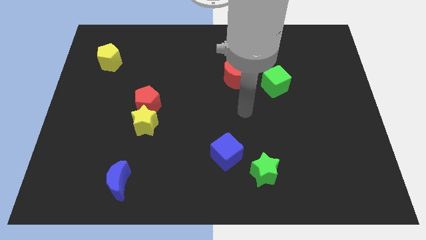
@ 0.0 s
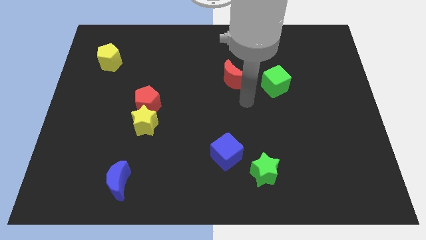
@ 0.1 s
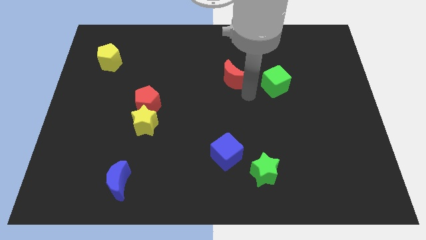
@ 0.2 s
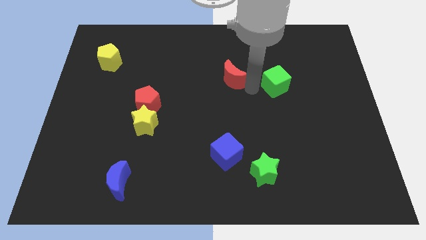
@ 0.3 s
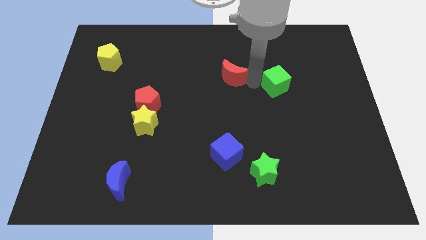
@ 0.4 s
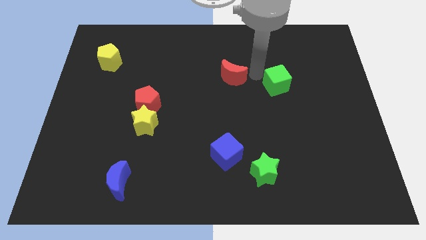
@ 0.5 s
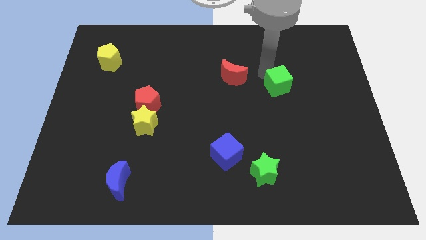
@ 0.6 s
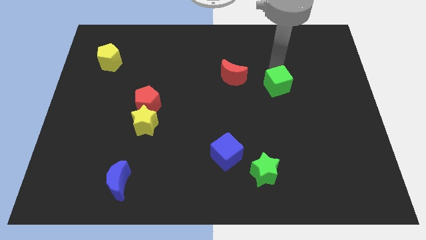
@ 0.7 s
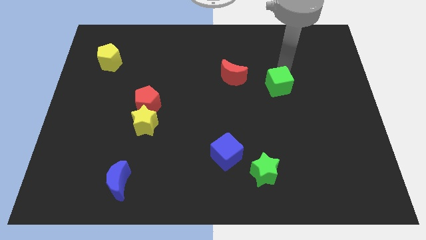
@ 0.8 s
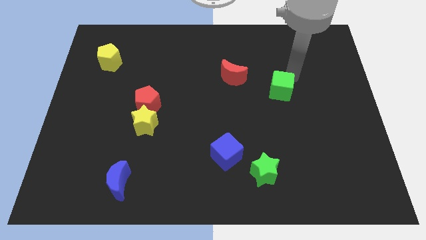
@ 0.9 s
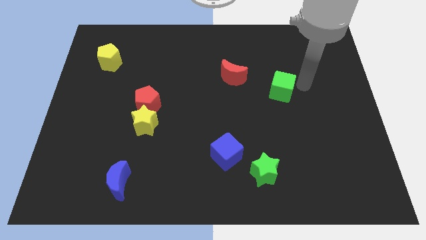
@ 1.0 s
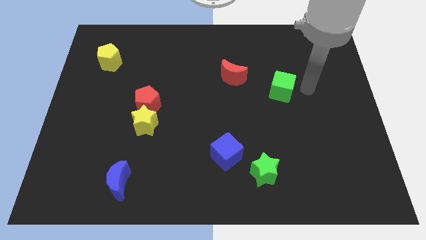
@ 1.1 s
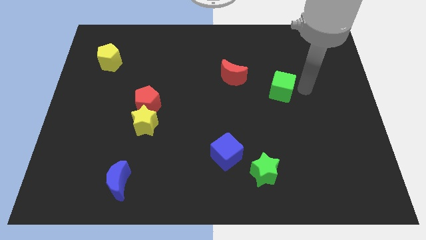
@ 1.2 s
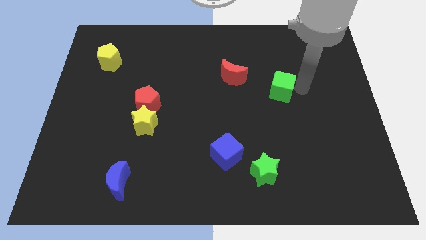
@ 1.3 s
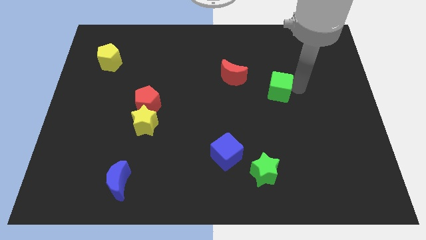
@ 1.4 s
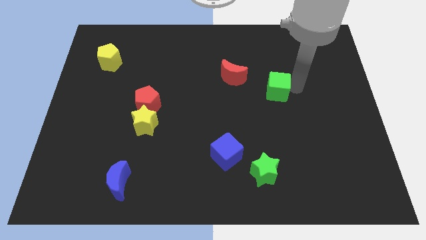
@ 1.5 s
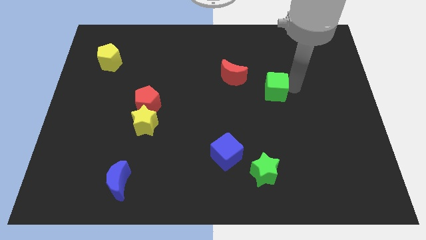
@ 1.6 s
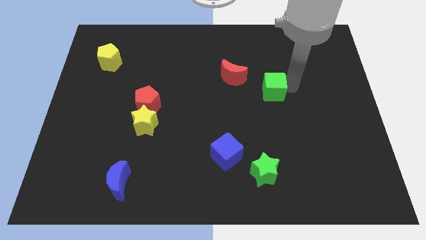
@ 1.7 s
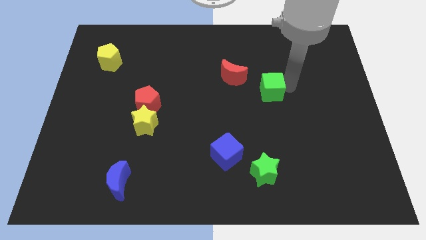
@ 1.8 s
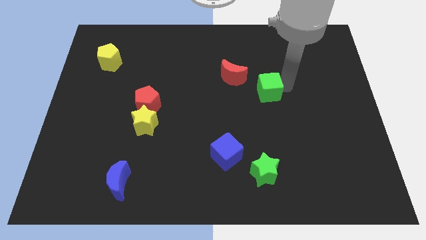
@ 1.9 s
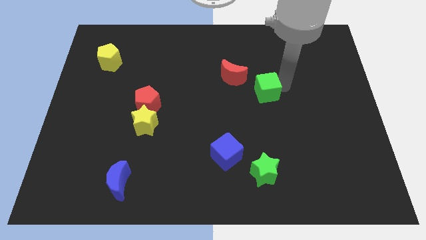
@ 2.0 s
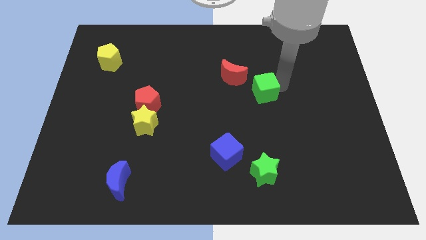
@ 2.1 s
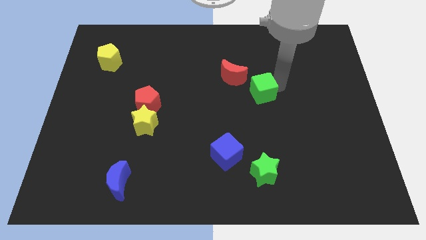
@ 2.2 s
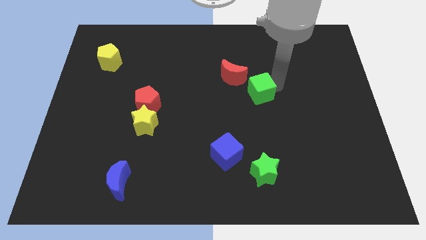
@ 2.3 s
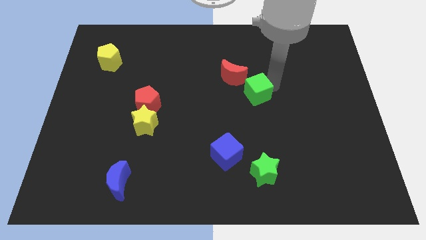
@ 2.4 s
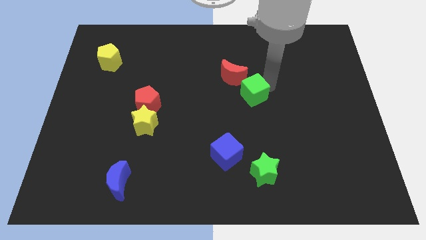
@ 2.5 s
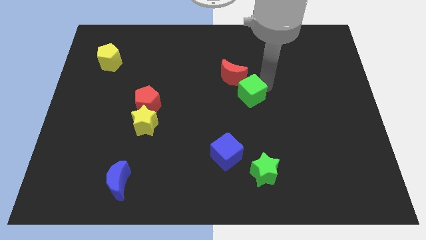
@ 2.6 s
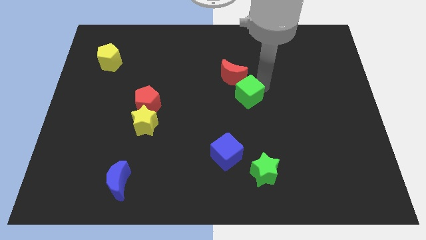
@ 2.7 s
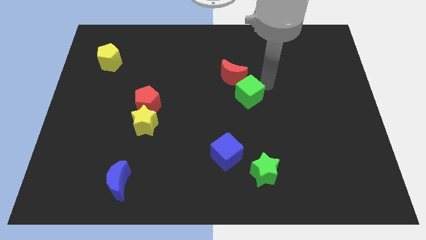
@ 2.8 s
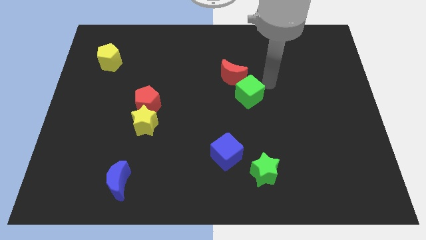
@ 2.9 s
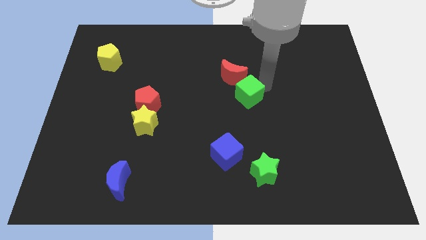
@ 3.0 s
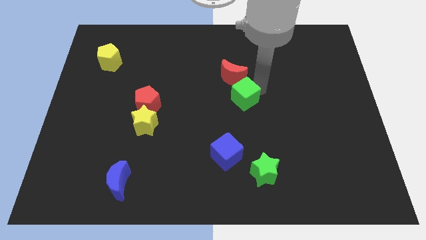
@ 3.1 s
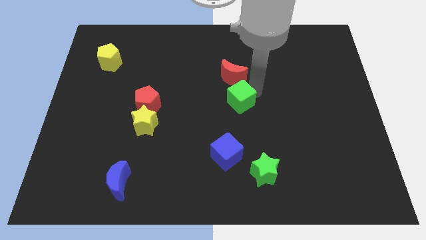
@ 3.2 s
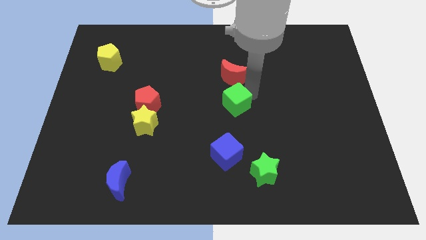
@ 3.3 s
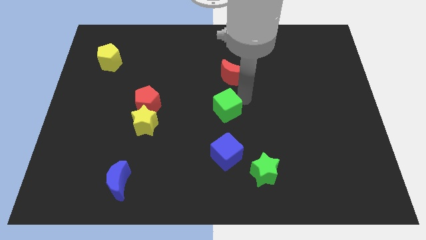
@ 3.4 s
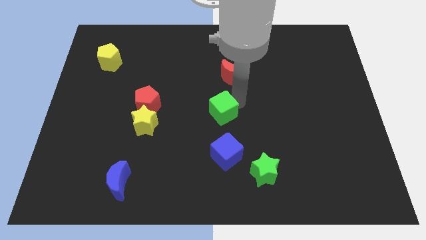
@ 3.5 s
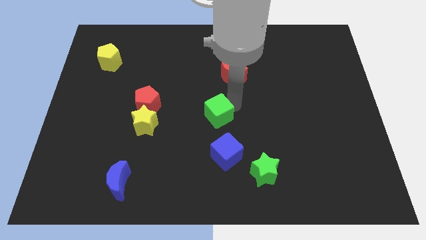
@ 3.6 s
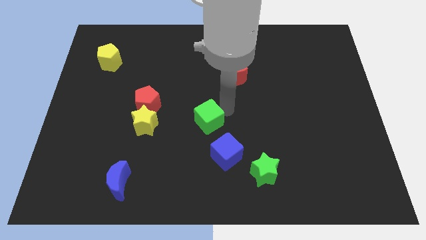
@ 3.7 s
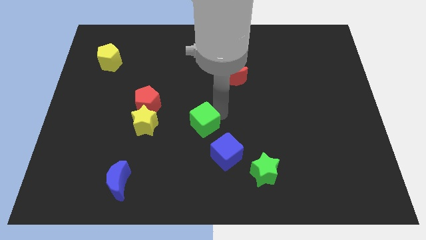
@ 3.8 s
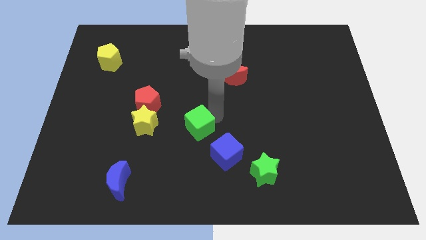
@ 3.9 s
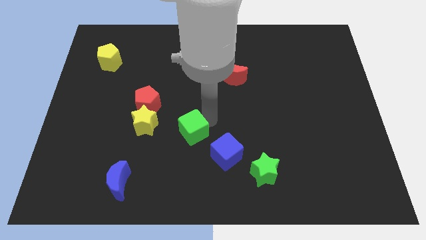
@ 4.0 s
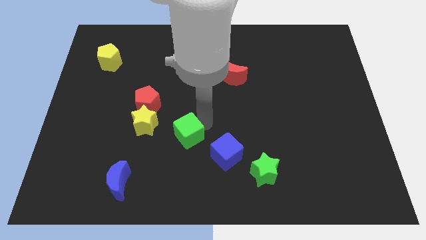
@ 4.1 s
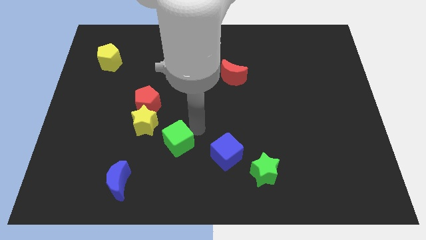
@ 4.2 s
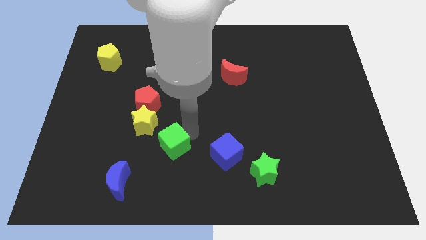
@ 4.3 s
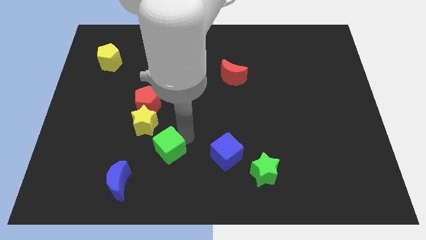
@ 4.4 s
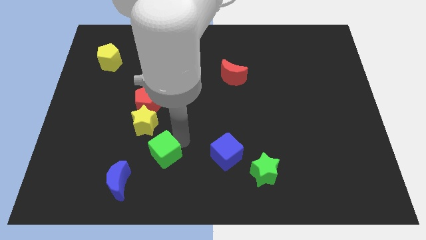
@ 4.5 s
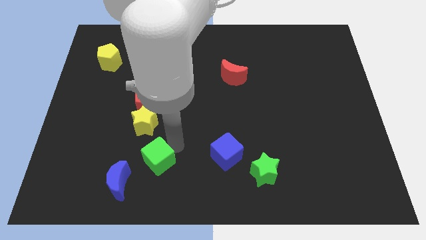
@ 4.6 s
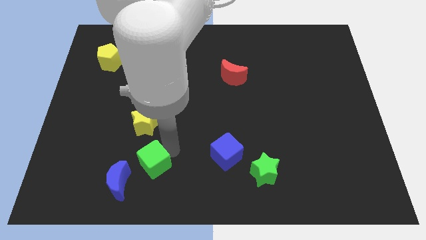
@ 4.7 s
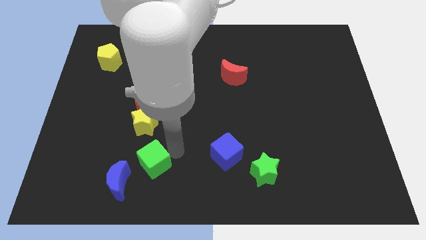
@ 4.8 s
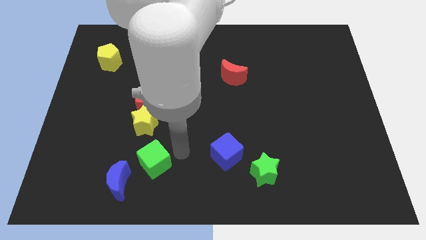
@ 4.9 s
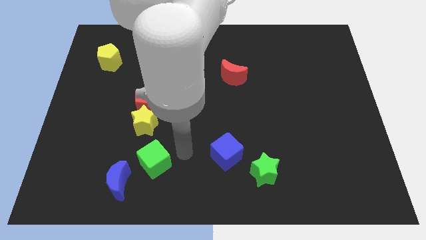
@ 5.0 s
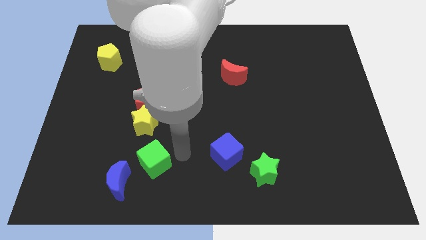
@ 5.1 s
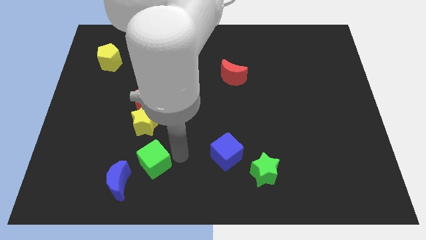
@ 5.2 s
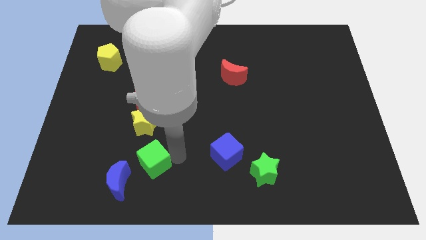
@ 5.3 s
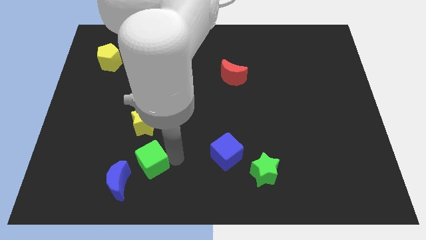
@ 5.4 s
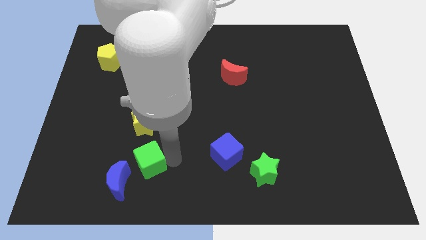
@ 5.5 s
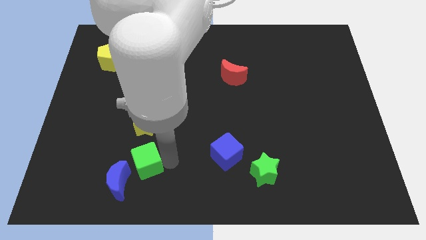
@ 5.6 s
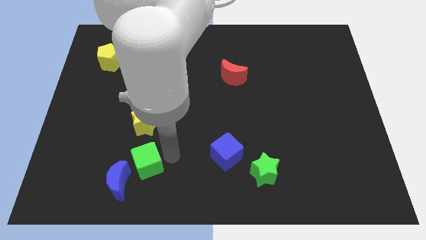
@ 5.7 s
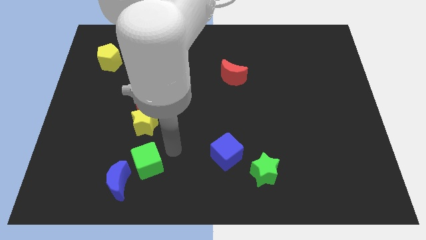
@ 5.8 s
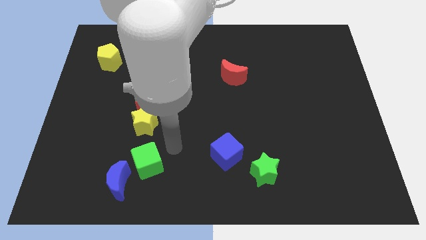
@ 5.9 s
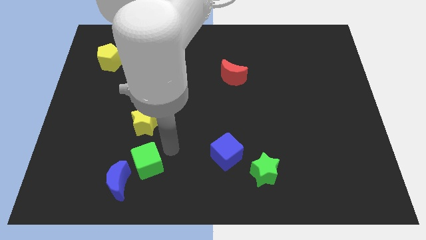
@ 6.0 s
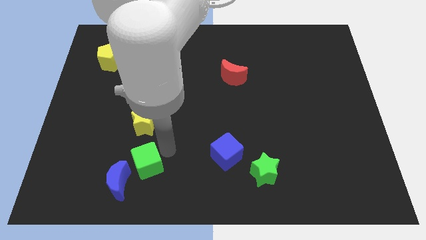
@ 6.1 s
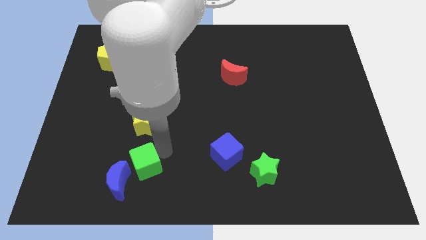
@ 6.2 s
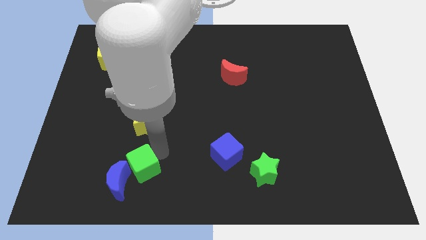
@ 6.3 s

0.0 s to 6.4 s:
push the green cube to the blue moon
